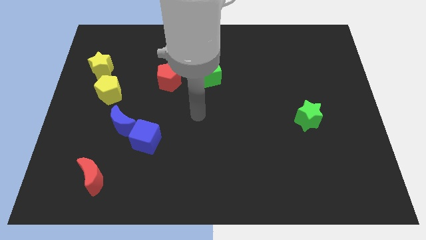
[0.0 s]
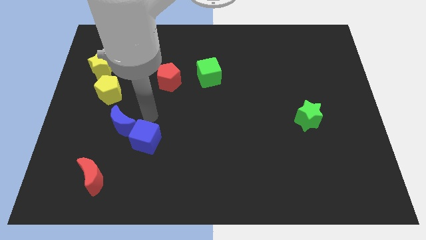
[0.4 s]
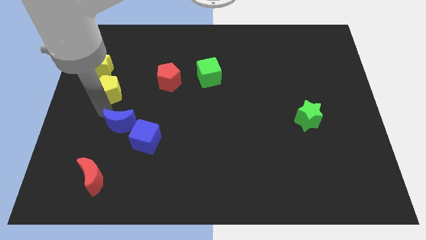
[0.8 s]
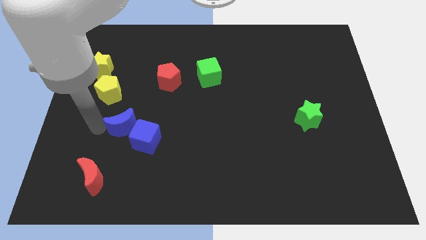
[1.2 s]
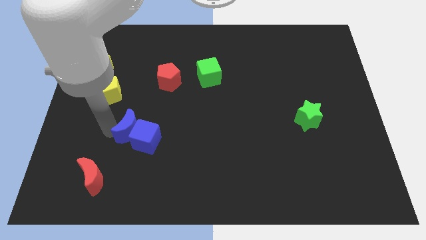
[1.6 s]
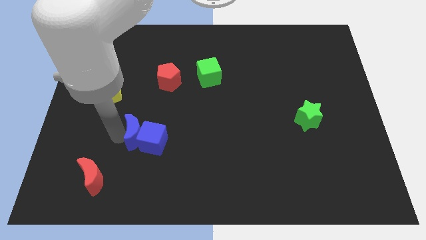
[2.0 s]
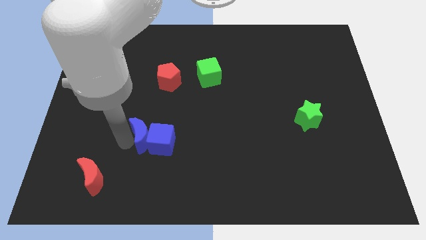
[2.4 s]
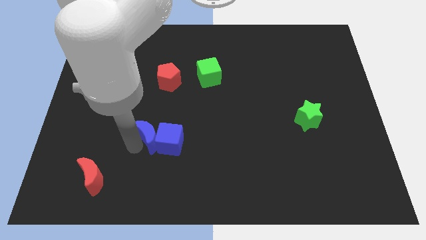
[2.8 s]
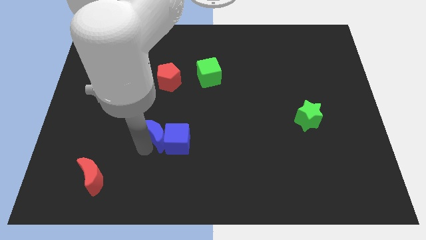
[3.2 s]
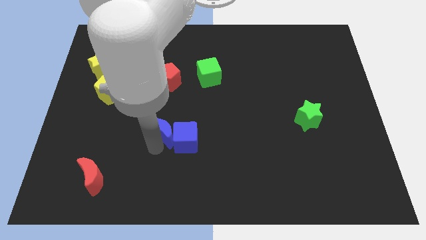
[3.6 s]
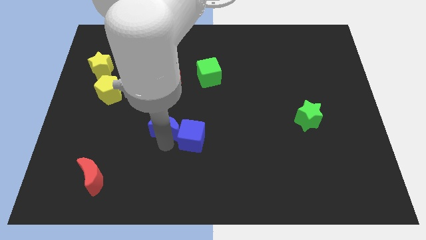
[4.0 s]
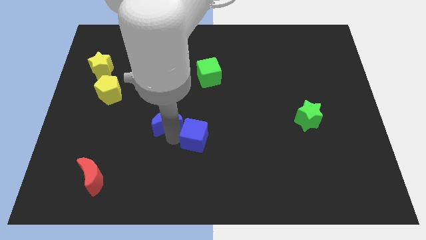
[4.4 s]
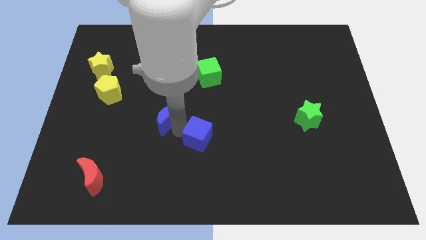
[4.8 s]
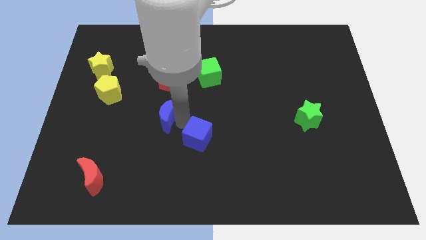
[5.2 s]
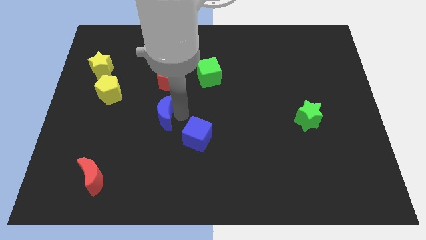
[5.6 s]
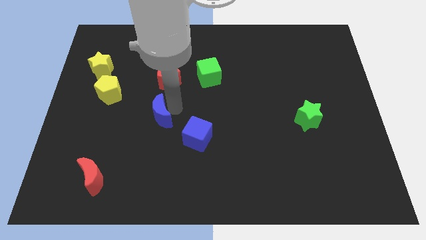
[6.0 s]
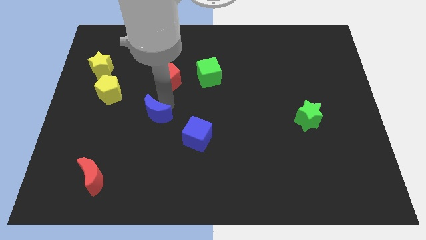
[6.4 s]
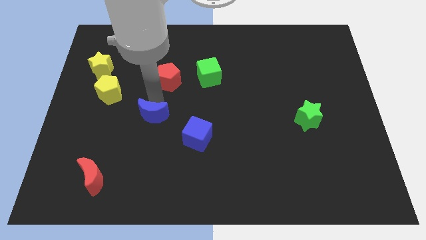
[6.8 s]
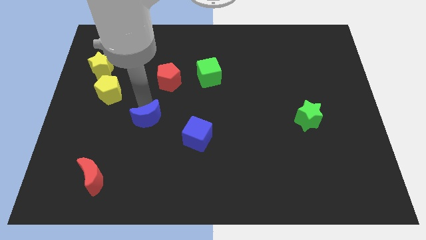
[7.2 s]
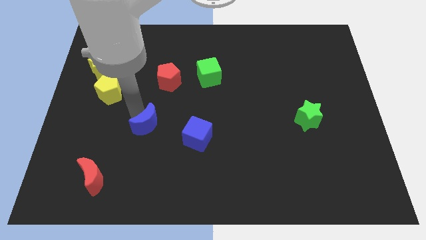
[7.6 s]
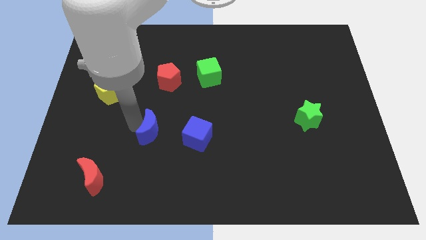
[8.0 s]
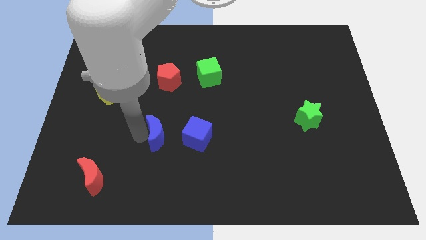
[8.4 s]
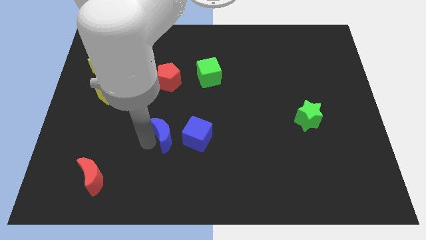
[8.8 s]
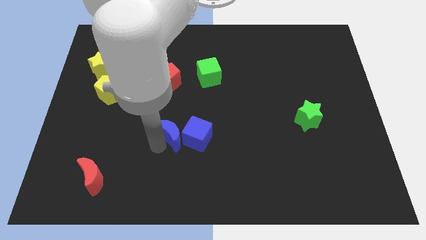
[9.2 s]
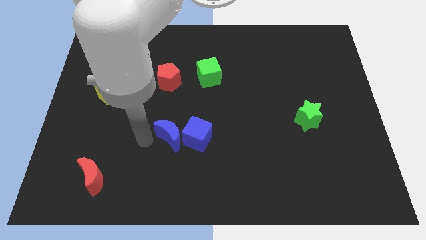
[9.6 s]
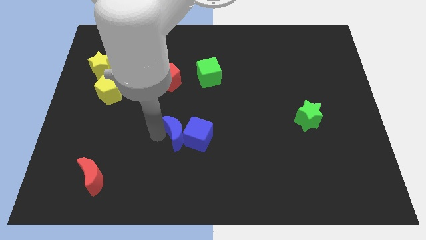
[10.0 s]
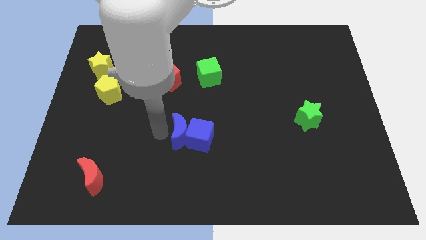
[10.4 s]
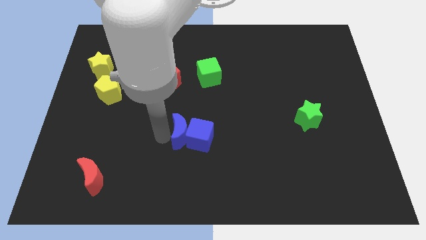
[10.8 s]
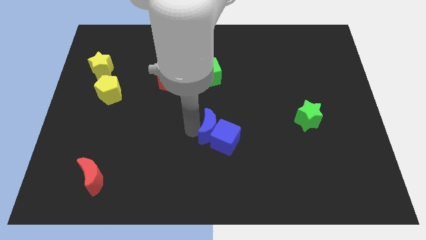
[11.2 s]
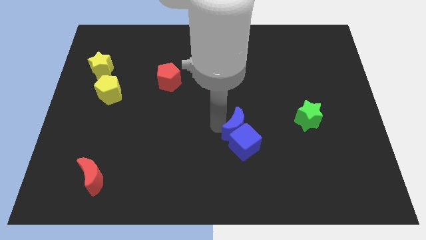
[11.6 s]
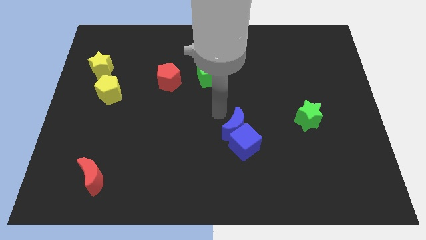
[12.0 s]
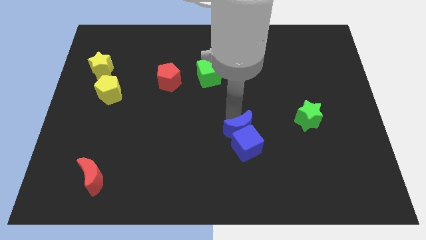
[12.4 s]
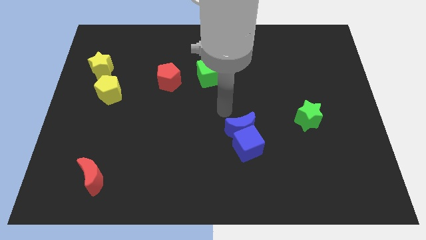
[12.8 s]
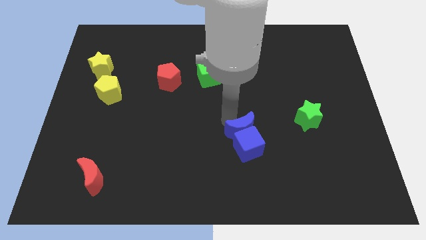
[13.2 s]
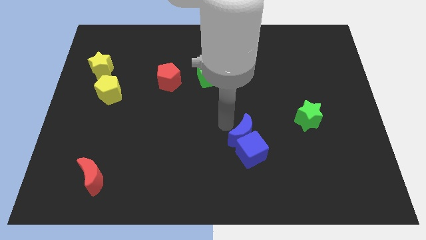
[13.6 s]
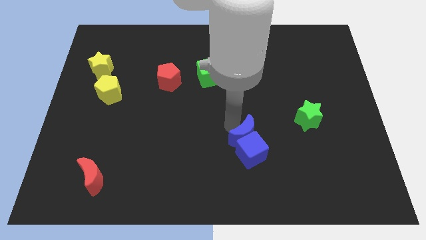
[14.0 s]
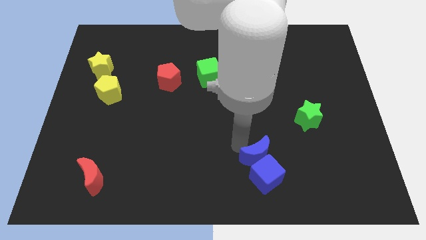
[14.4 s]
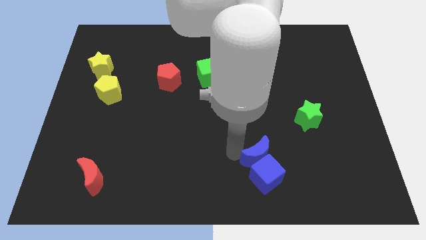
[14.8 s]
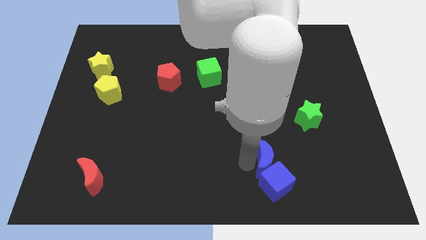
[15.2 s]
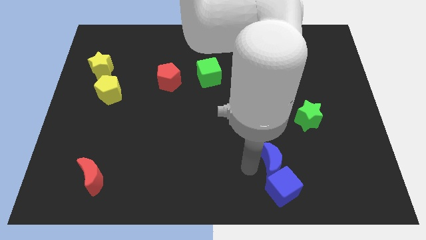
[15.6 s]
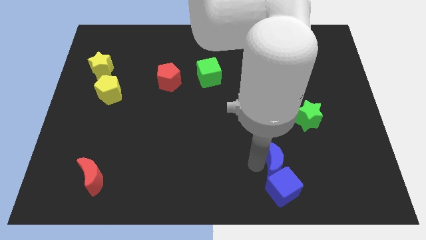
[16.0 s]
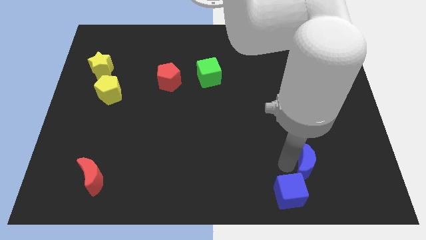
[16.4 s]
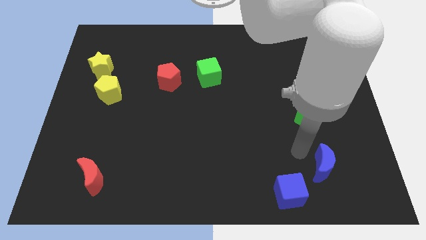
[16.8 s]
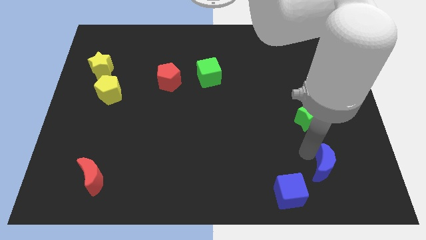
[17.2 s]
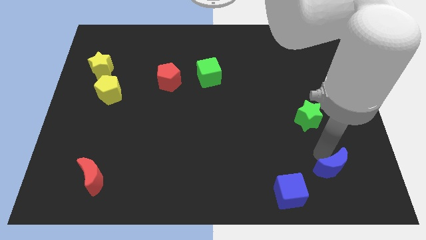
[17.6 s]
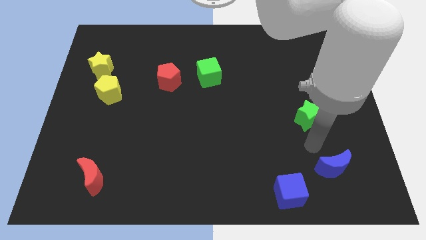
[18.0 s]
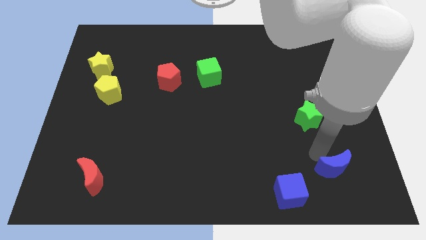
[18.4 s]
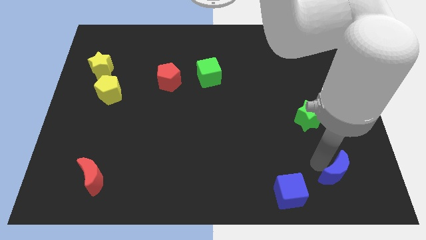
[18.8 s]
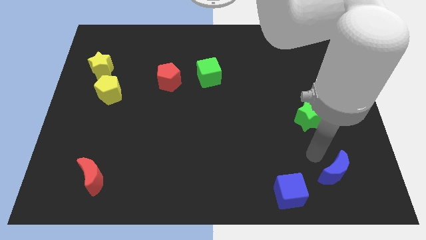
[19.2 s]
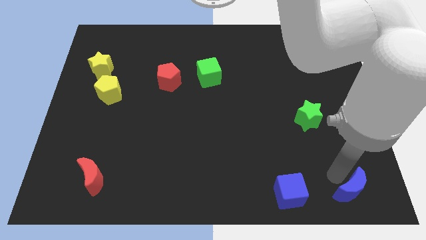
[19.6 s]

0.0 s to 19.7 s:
put the blue moon to the lower right corner
